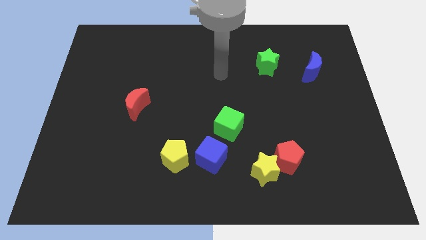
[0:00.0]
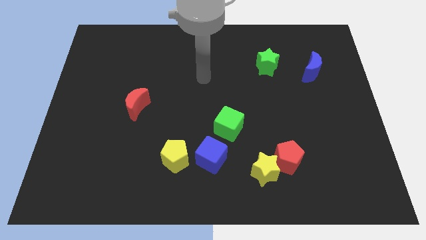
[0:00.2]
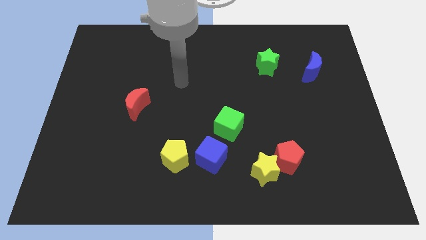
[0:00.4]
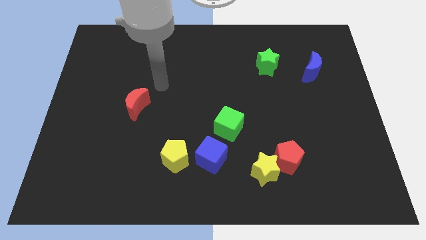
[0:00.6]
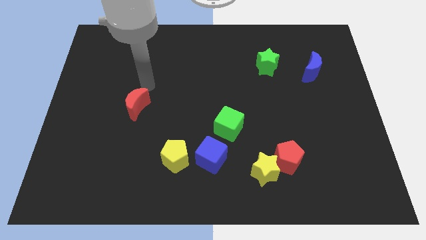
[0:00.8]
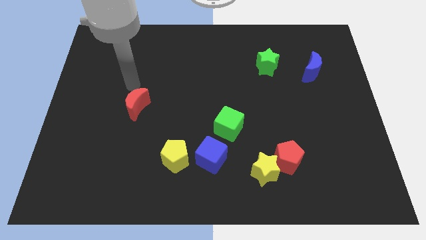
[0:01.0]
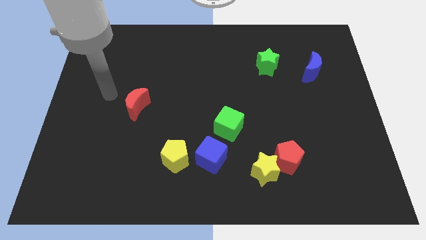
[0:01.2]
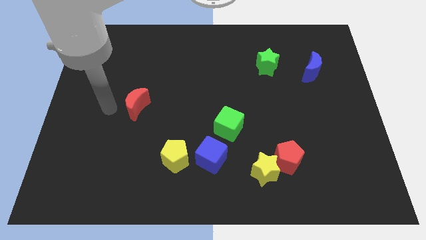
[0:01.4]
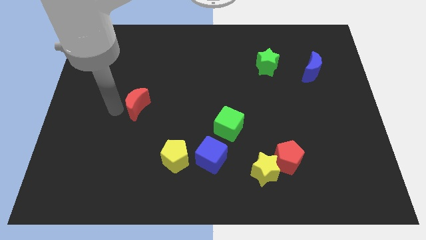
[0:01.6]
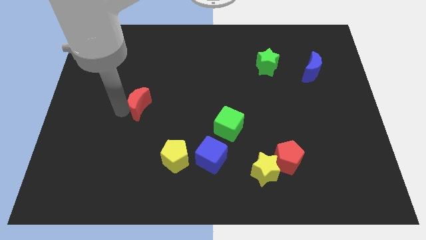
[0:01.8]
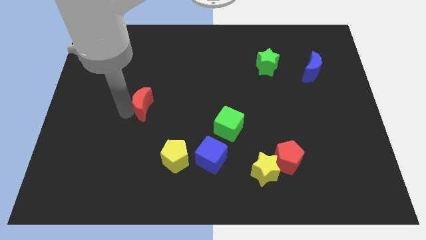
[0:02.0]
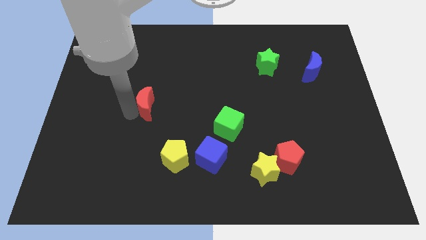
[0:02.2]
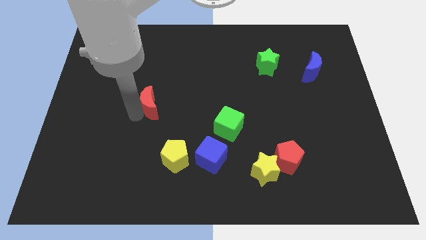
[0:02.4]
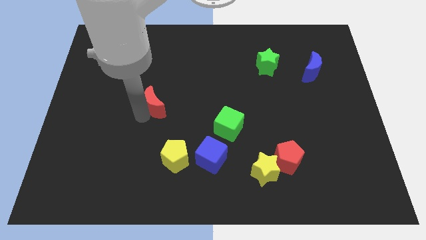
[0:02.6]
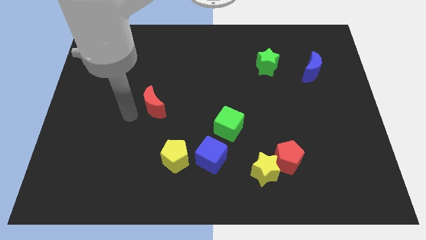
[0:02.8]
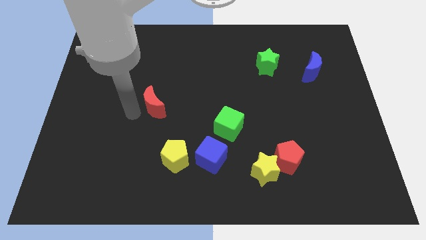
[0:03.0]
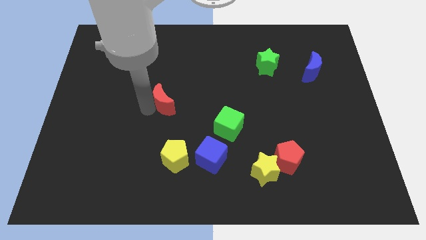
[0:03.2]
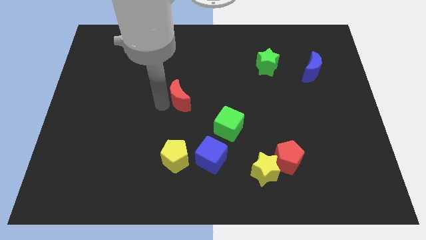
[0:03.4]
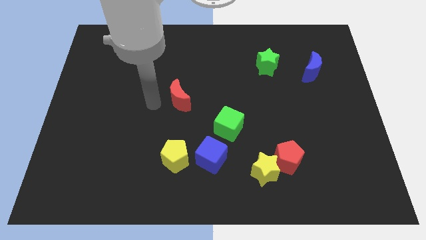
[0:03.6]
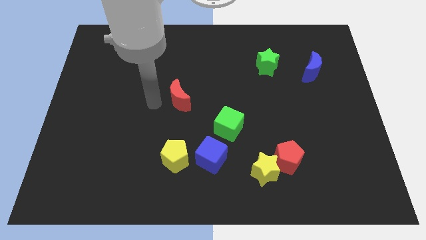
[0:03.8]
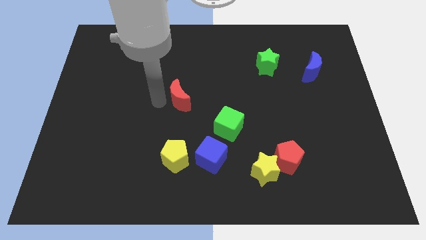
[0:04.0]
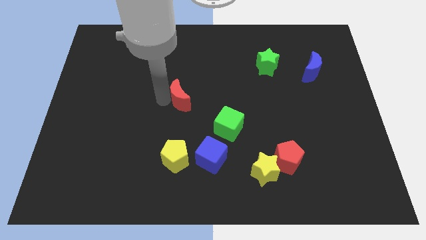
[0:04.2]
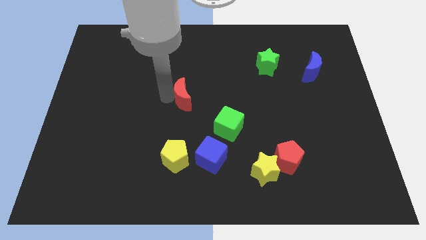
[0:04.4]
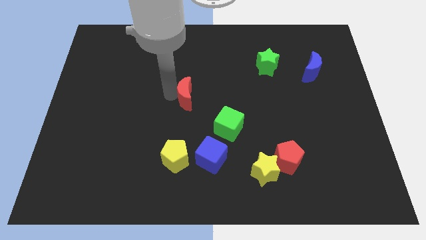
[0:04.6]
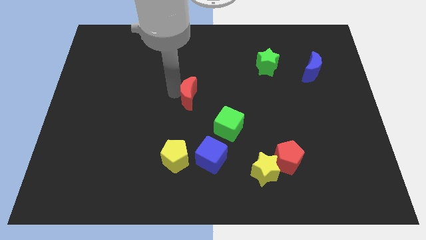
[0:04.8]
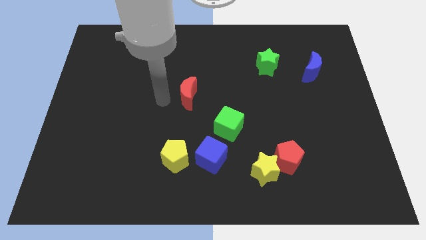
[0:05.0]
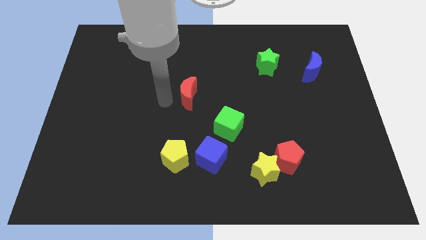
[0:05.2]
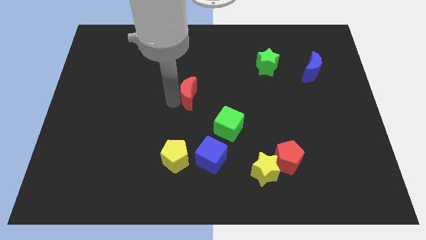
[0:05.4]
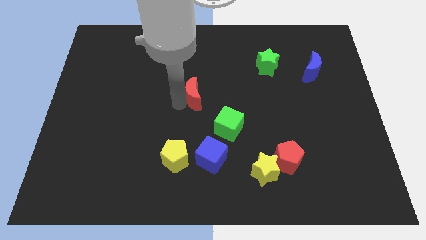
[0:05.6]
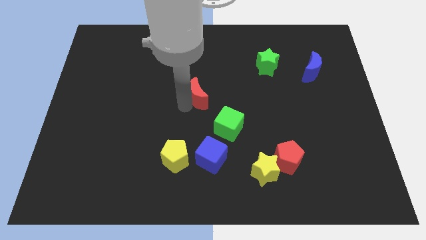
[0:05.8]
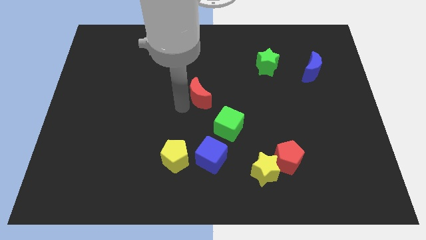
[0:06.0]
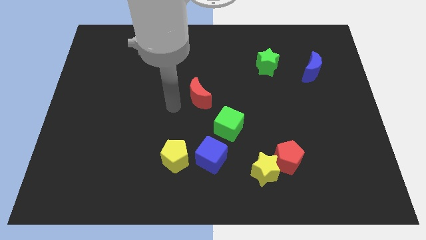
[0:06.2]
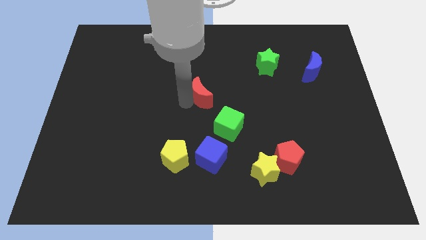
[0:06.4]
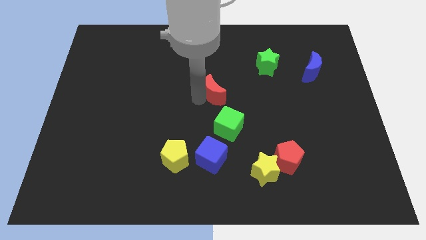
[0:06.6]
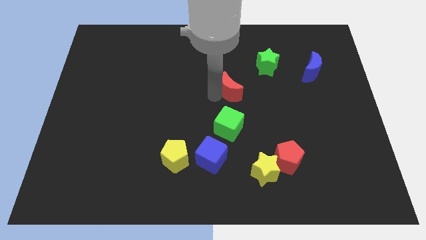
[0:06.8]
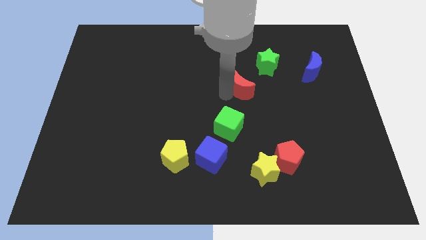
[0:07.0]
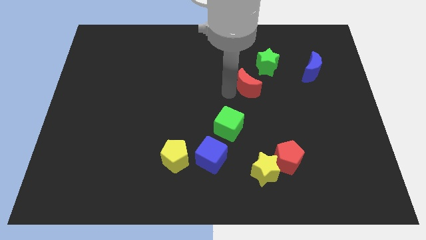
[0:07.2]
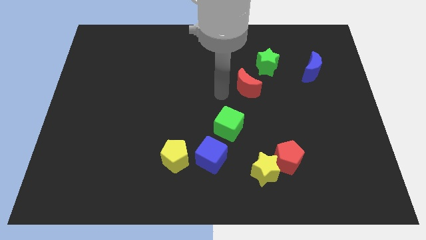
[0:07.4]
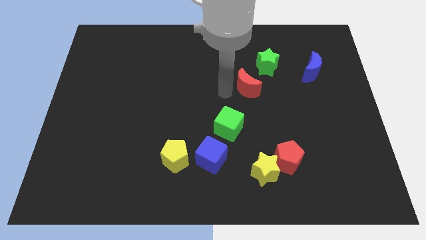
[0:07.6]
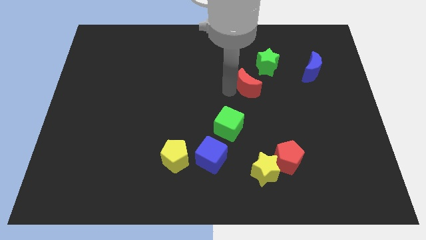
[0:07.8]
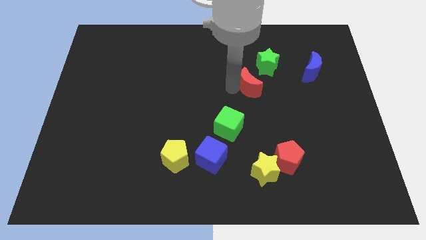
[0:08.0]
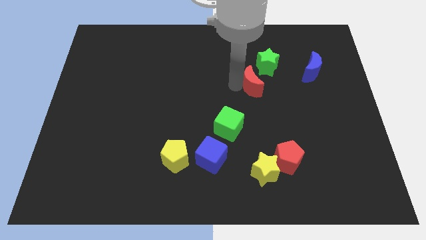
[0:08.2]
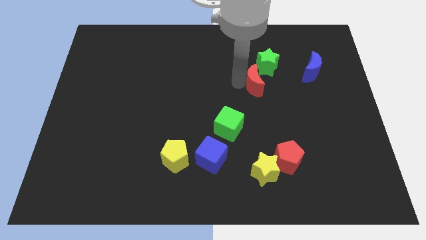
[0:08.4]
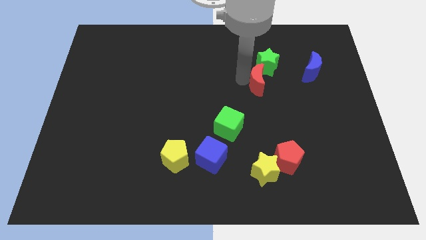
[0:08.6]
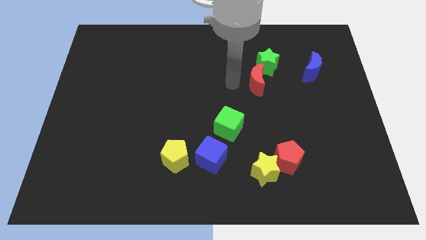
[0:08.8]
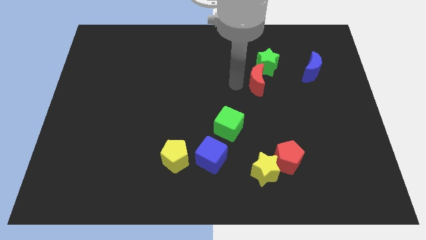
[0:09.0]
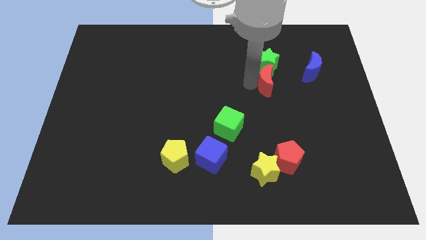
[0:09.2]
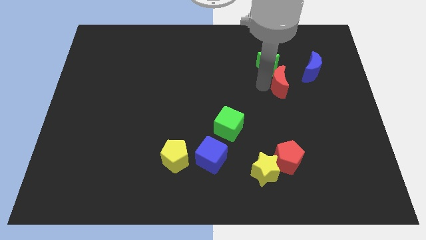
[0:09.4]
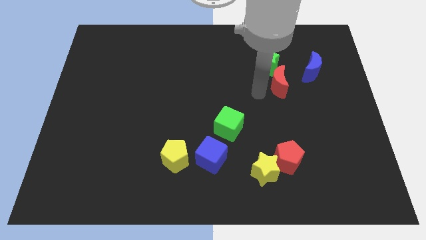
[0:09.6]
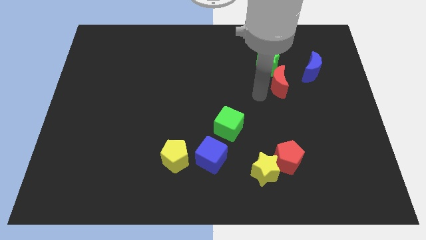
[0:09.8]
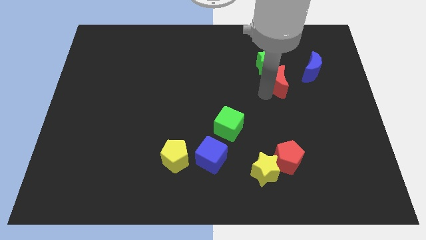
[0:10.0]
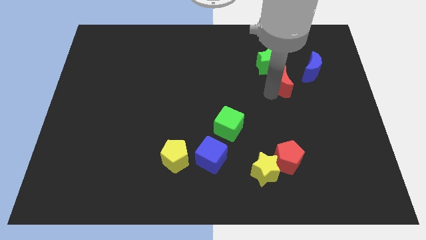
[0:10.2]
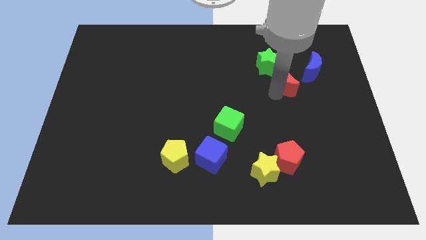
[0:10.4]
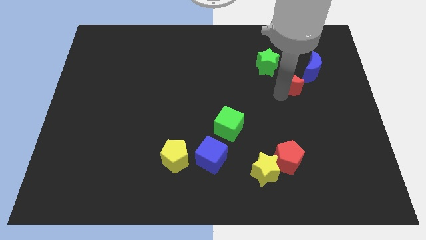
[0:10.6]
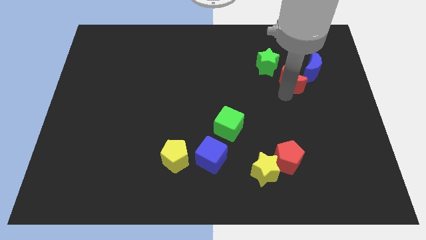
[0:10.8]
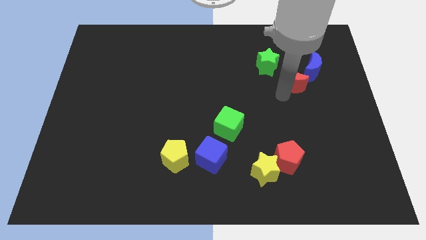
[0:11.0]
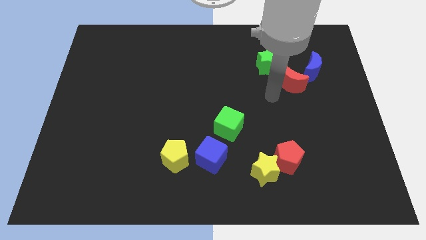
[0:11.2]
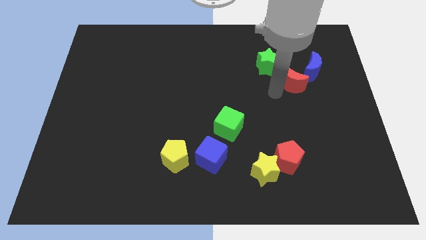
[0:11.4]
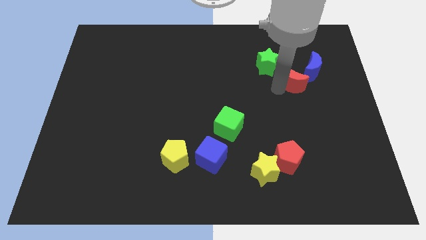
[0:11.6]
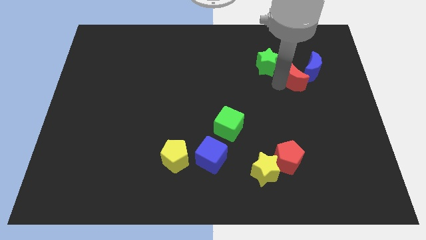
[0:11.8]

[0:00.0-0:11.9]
move the red moon to the blue moon

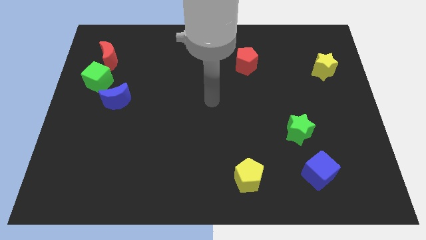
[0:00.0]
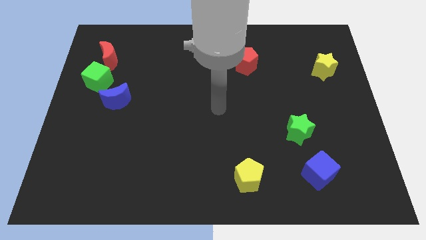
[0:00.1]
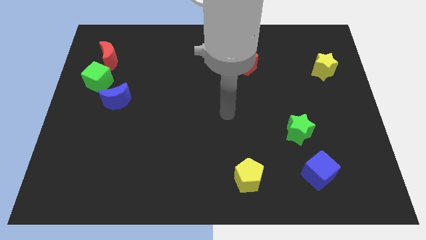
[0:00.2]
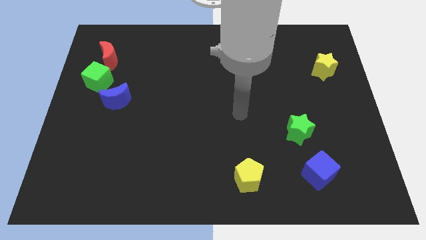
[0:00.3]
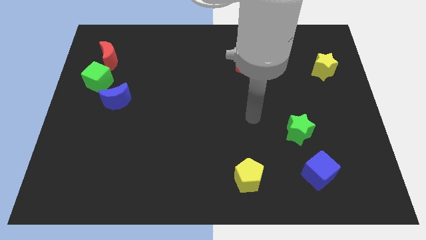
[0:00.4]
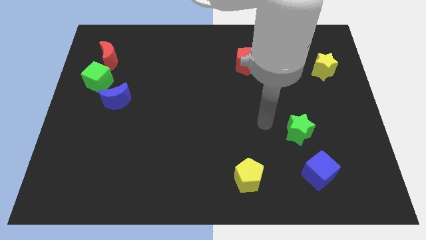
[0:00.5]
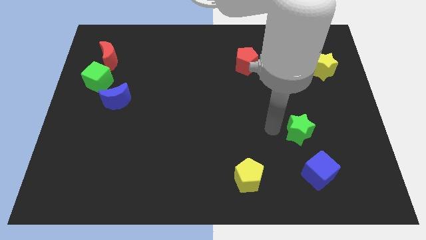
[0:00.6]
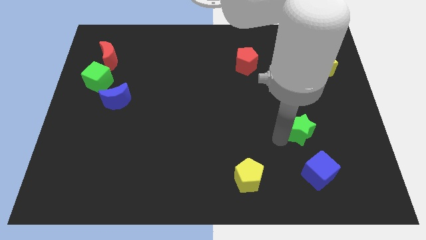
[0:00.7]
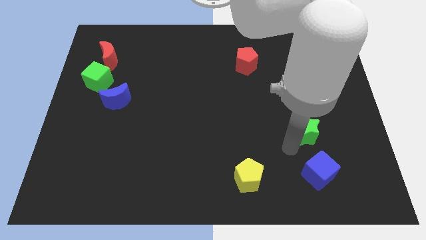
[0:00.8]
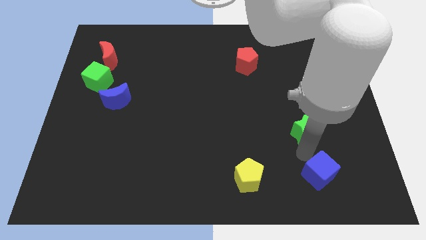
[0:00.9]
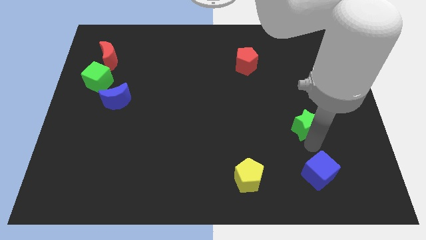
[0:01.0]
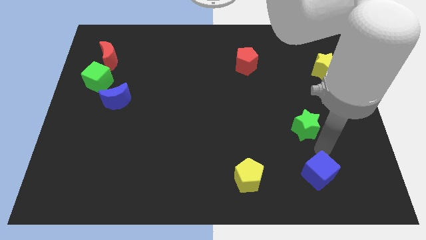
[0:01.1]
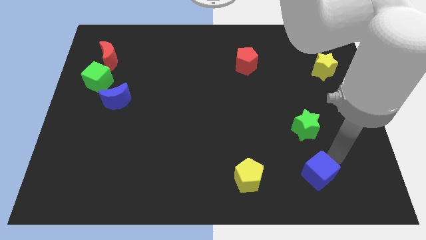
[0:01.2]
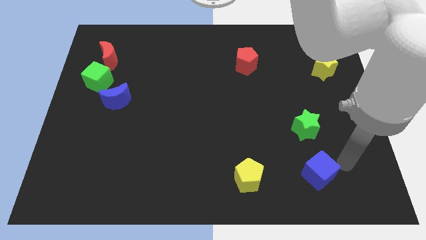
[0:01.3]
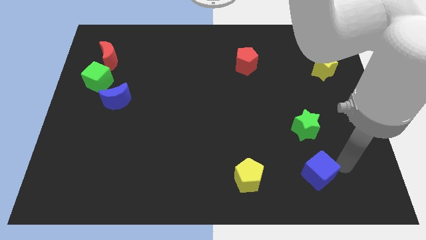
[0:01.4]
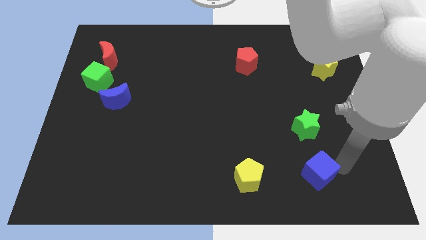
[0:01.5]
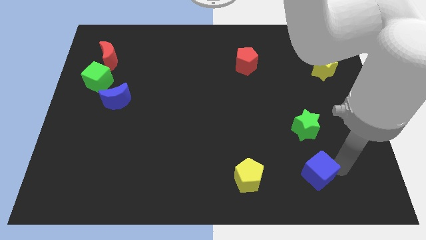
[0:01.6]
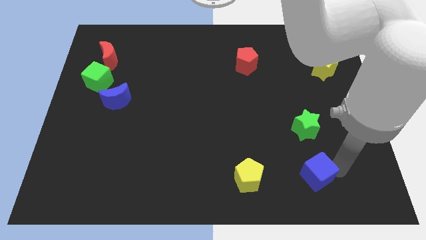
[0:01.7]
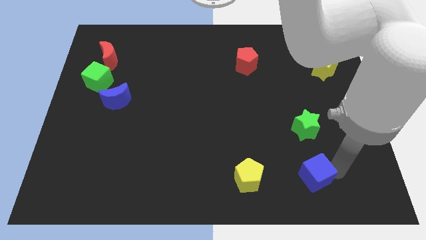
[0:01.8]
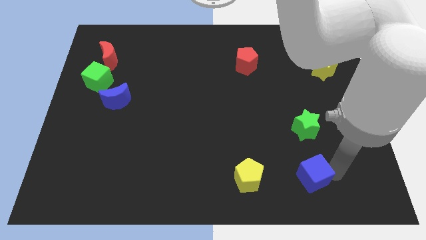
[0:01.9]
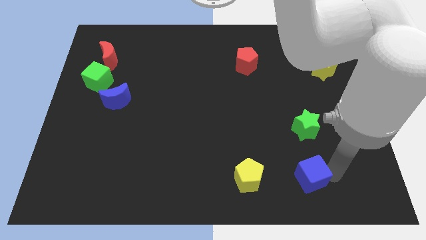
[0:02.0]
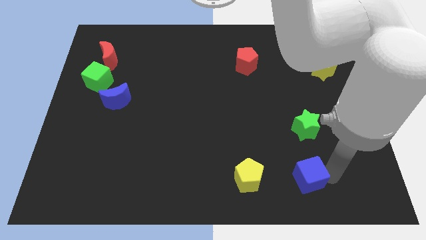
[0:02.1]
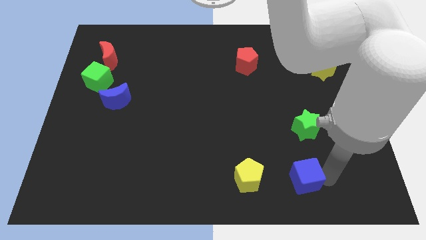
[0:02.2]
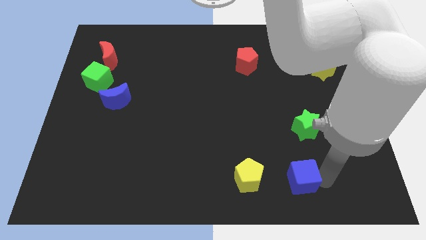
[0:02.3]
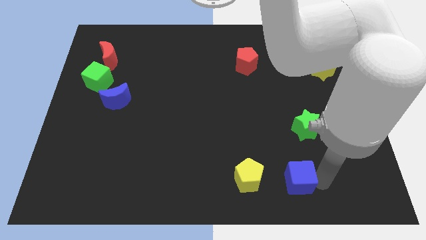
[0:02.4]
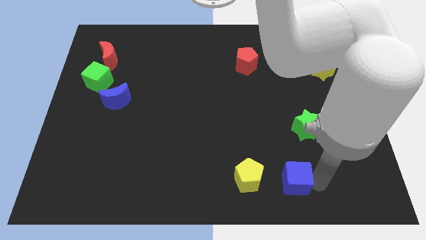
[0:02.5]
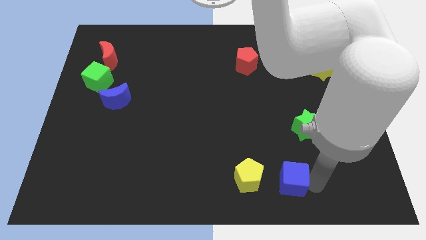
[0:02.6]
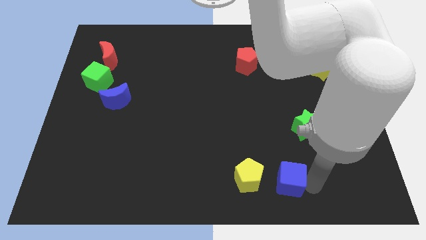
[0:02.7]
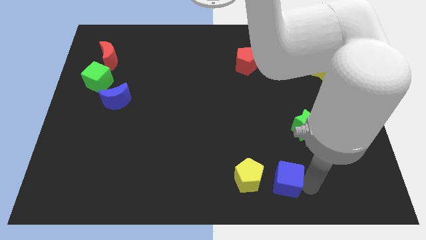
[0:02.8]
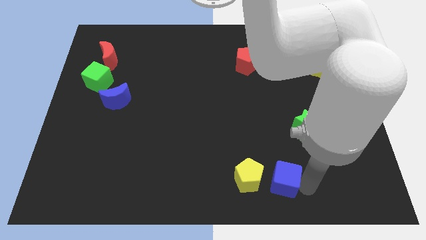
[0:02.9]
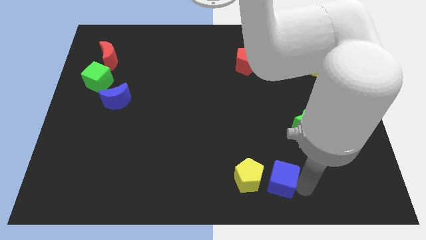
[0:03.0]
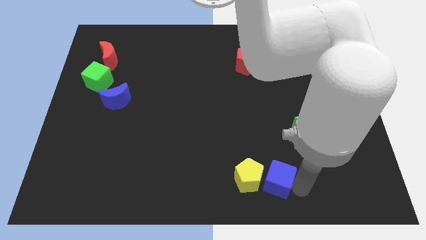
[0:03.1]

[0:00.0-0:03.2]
move the blue cube towards the yellow pentagon
